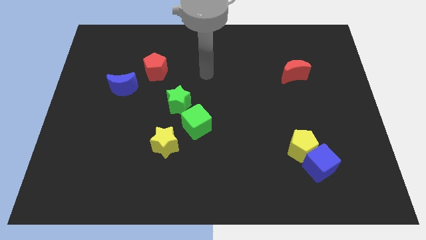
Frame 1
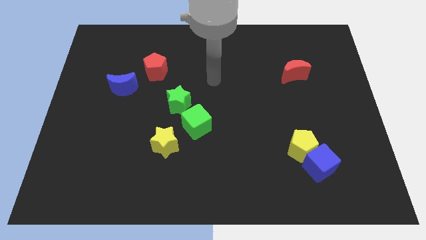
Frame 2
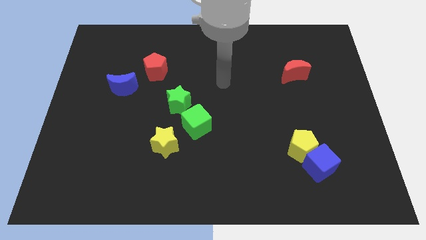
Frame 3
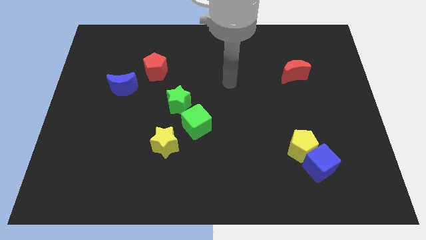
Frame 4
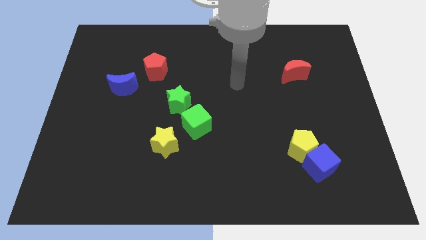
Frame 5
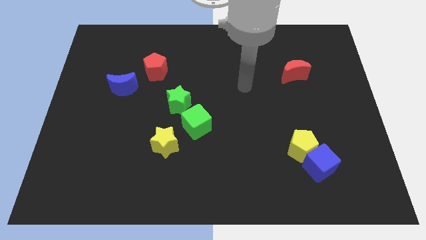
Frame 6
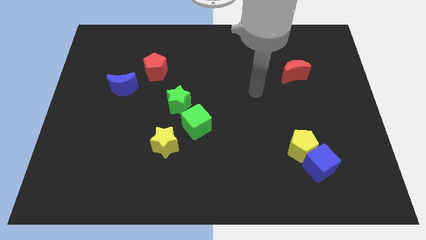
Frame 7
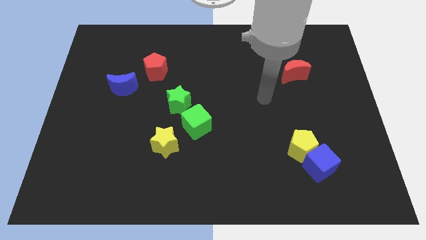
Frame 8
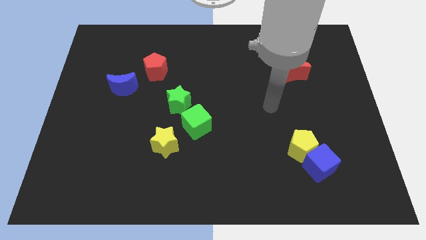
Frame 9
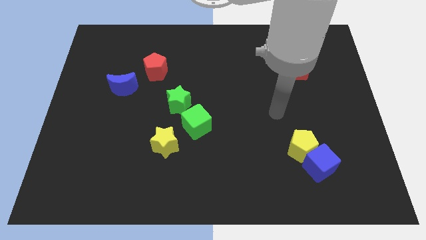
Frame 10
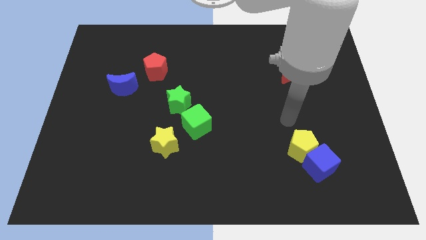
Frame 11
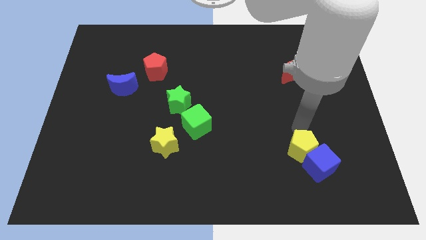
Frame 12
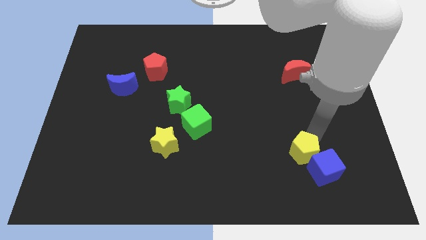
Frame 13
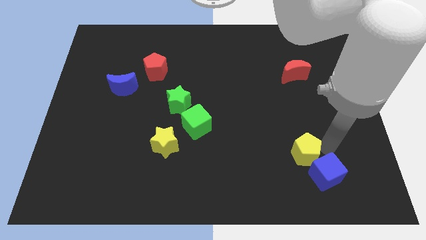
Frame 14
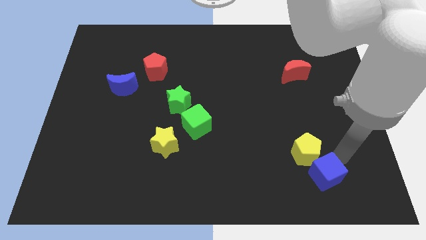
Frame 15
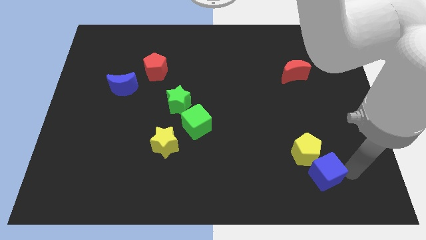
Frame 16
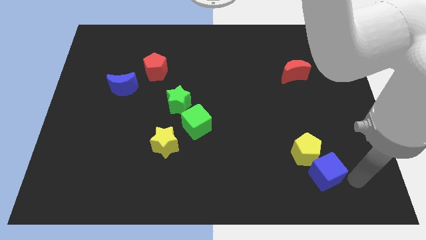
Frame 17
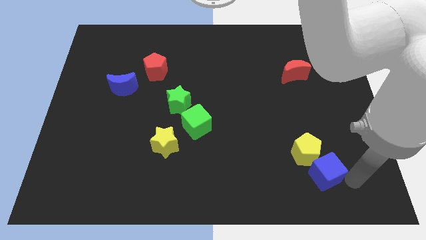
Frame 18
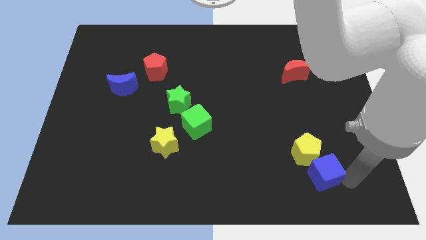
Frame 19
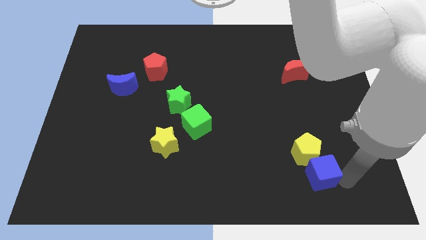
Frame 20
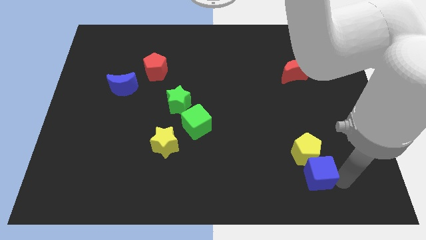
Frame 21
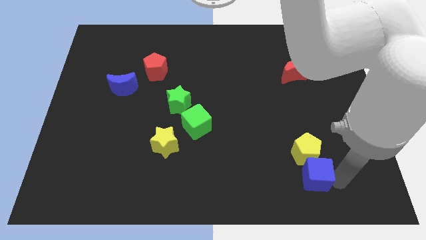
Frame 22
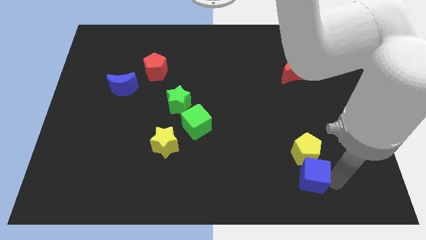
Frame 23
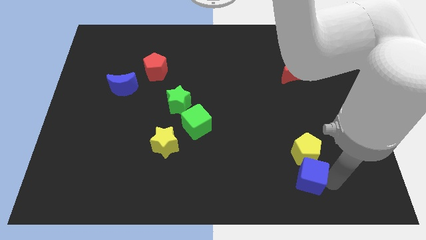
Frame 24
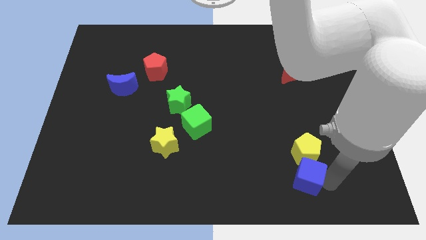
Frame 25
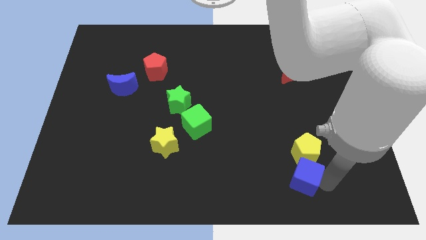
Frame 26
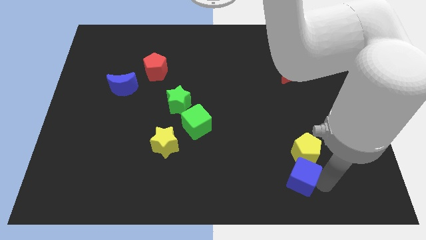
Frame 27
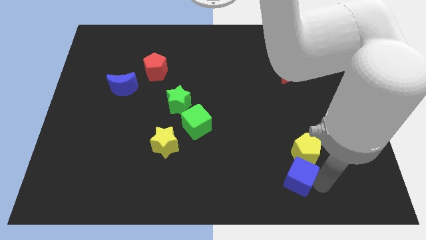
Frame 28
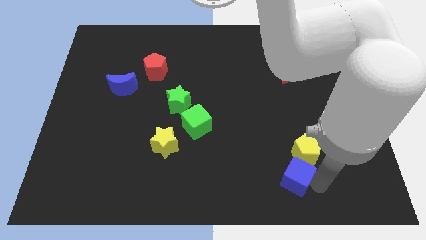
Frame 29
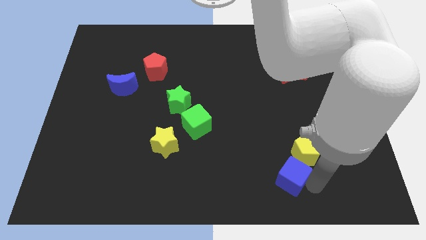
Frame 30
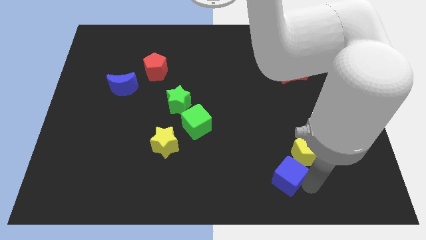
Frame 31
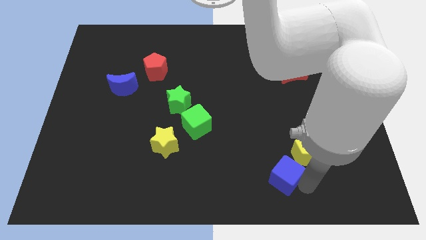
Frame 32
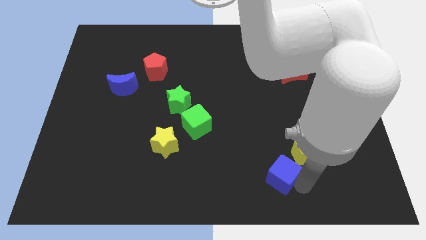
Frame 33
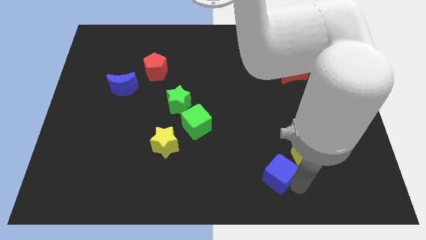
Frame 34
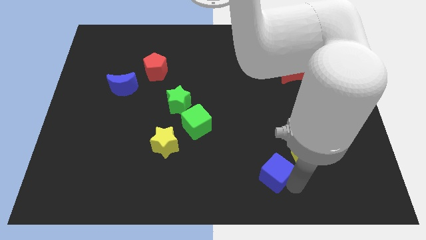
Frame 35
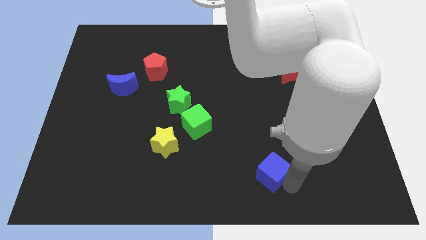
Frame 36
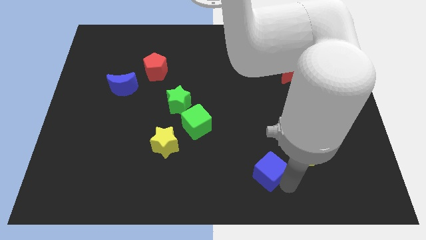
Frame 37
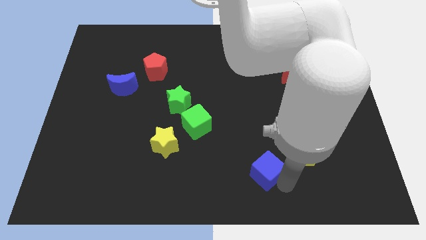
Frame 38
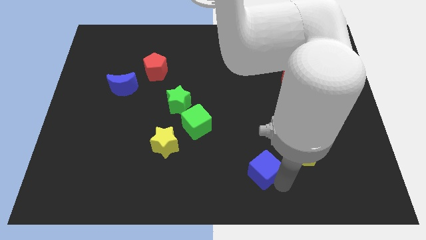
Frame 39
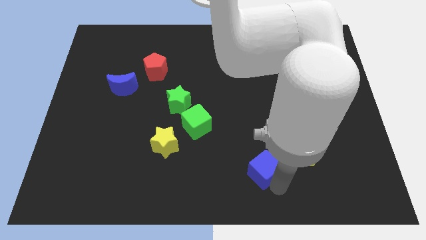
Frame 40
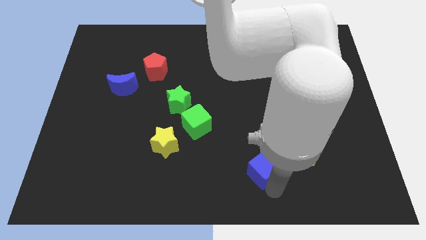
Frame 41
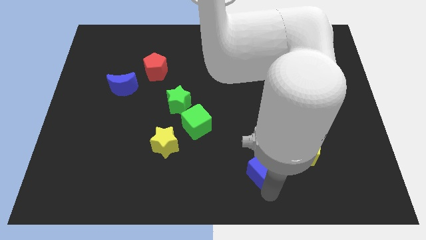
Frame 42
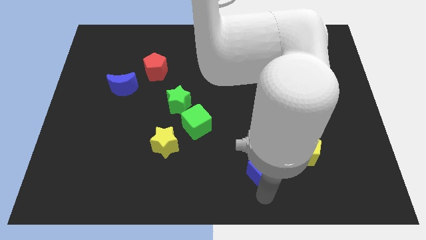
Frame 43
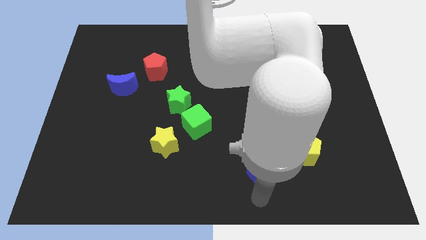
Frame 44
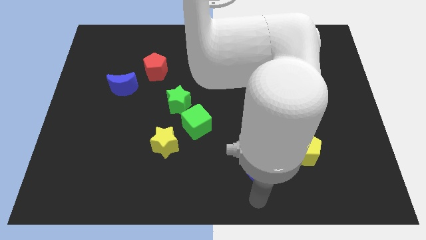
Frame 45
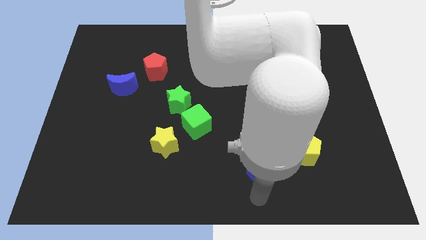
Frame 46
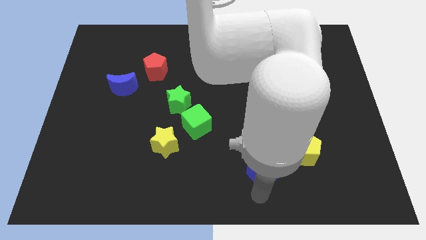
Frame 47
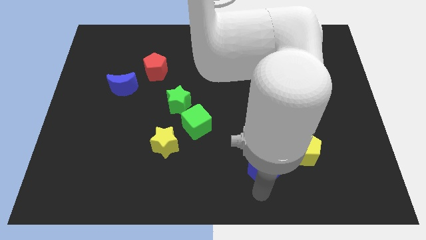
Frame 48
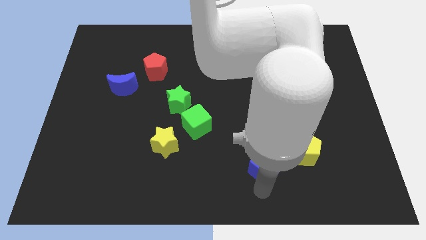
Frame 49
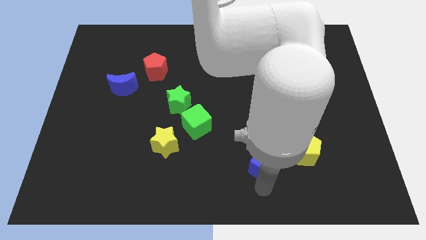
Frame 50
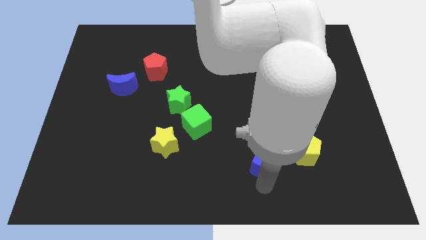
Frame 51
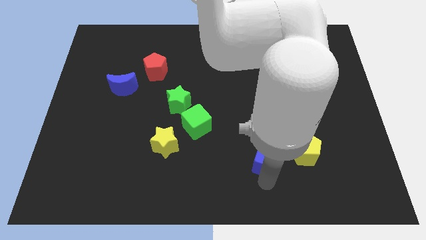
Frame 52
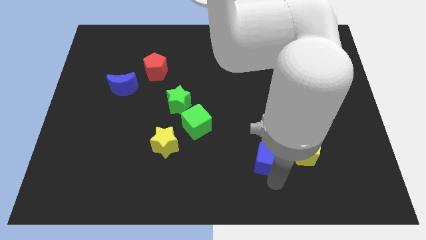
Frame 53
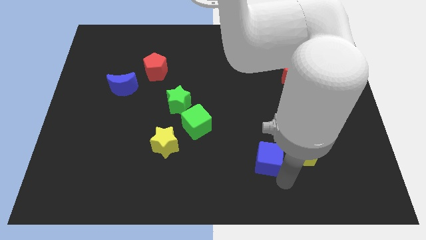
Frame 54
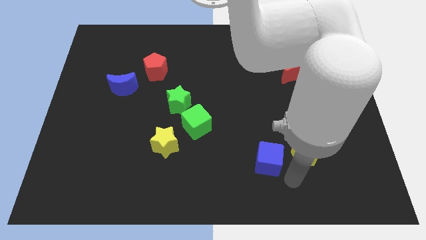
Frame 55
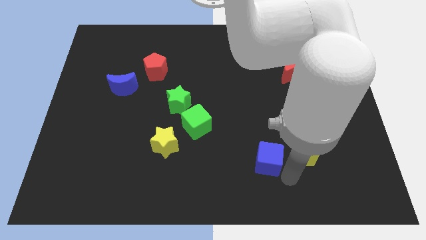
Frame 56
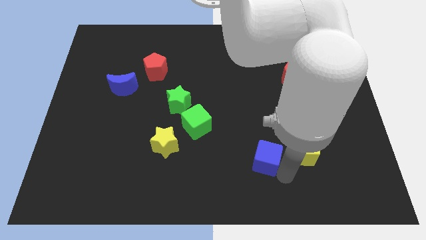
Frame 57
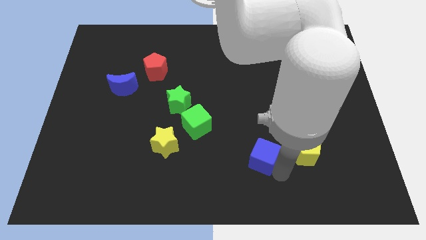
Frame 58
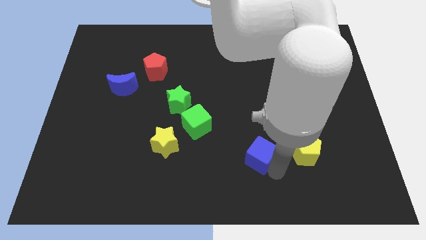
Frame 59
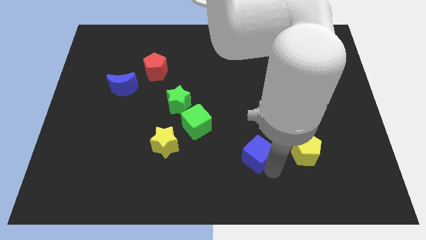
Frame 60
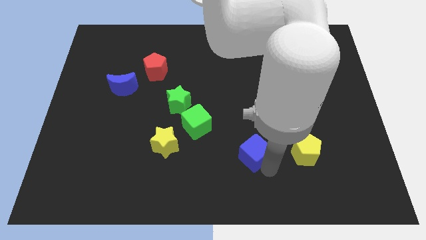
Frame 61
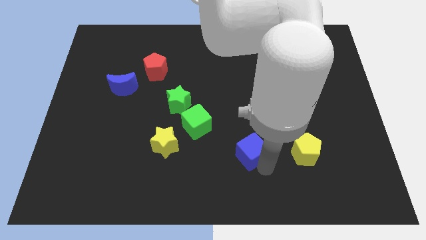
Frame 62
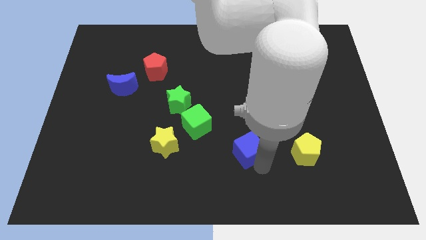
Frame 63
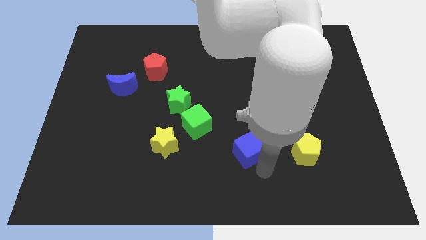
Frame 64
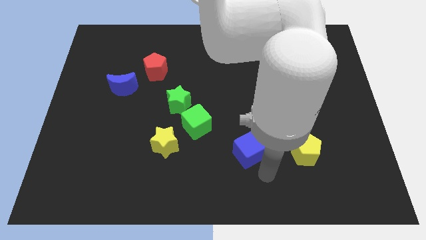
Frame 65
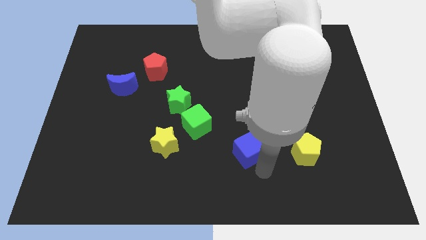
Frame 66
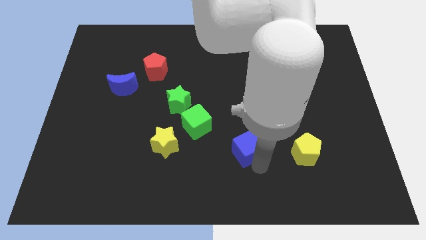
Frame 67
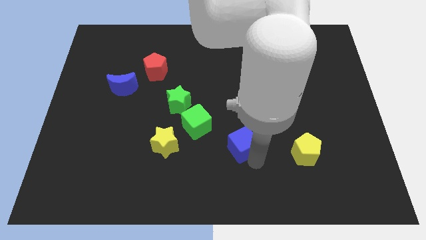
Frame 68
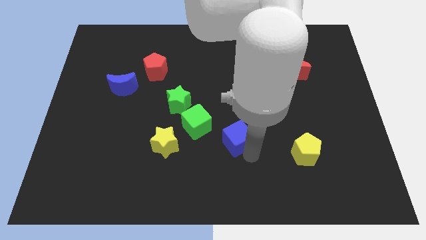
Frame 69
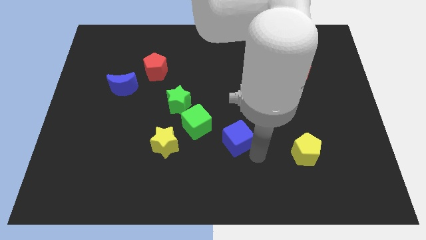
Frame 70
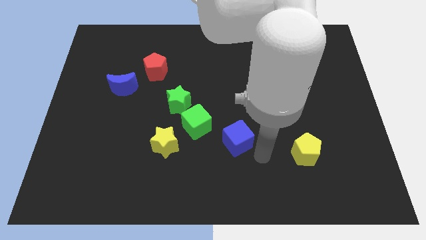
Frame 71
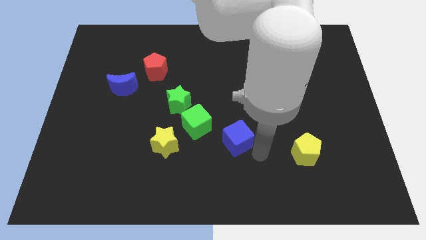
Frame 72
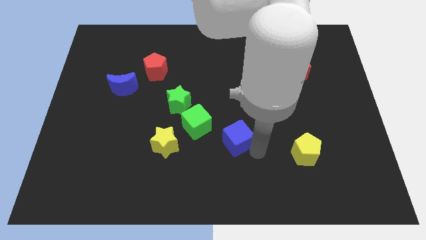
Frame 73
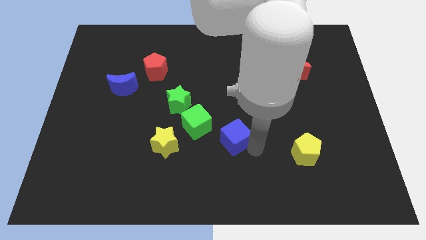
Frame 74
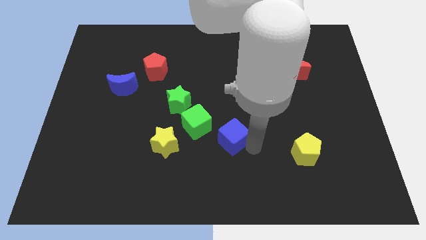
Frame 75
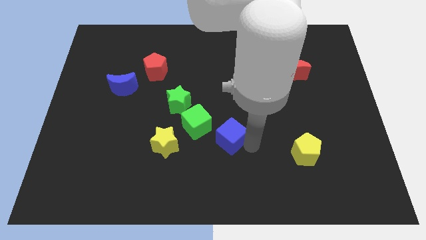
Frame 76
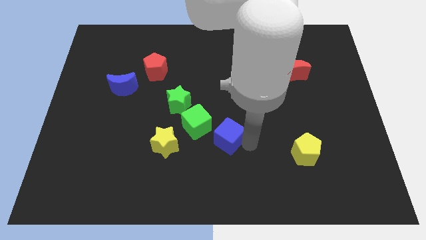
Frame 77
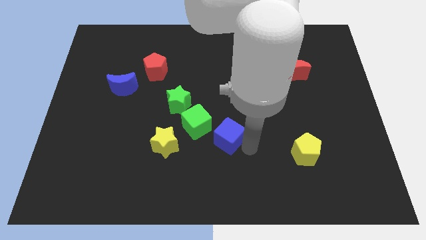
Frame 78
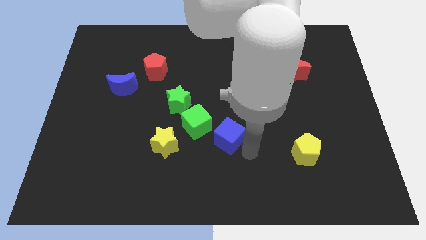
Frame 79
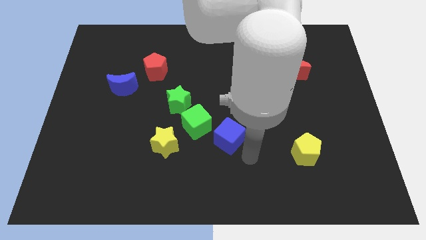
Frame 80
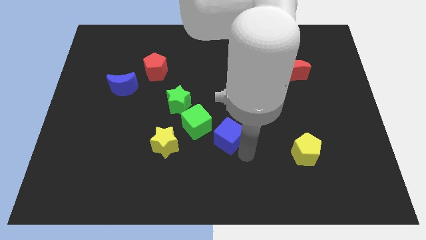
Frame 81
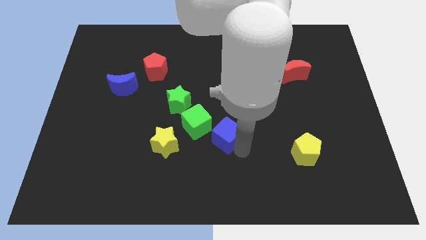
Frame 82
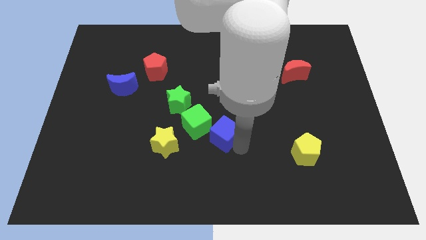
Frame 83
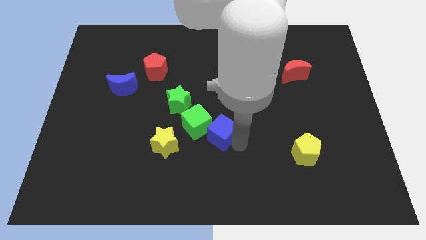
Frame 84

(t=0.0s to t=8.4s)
push the blue cube to the green cube
